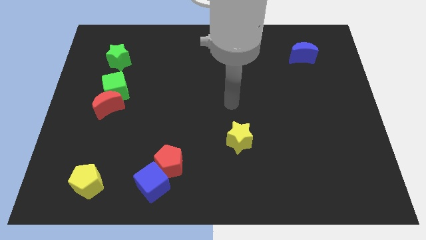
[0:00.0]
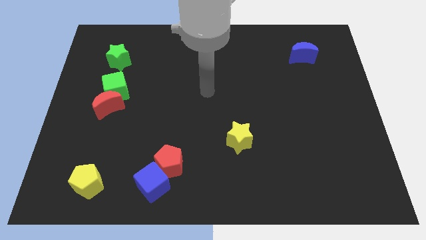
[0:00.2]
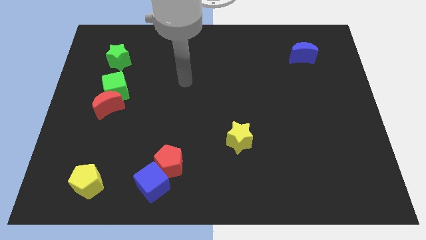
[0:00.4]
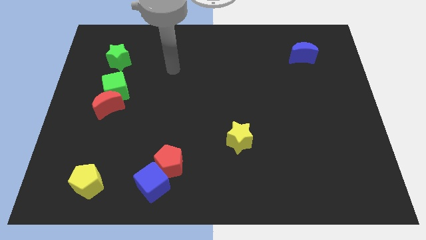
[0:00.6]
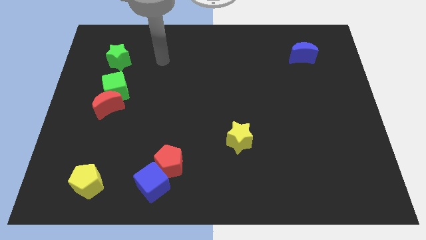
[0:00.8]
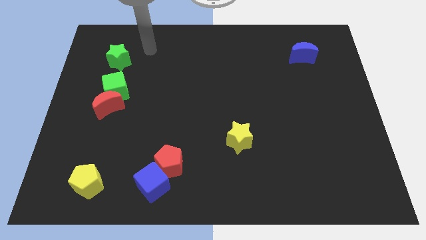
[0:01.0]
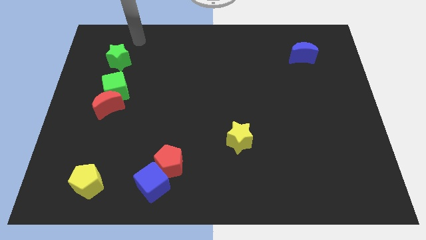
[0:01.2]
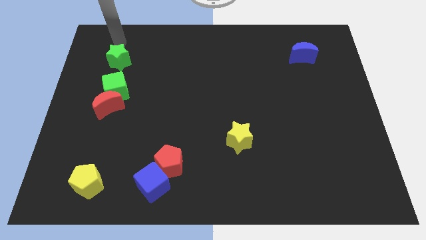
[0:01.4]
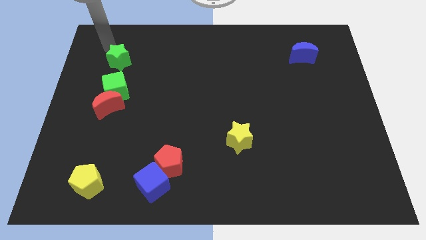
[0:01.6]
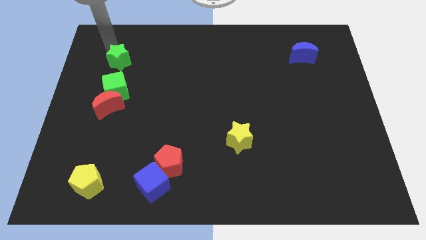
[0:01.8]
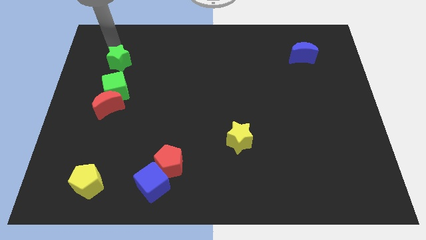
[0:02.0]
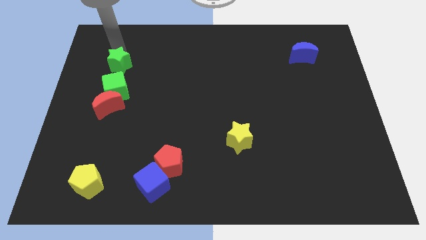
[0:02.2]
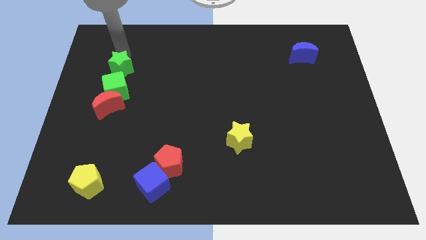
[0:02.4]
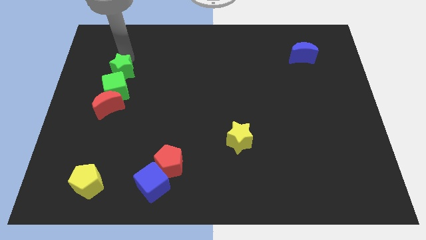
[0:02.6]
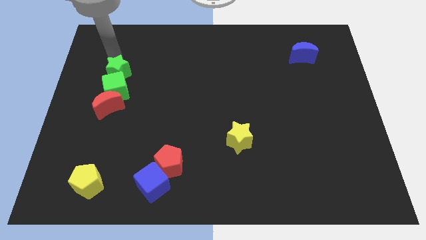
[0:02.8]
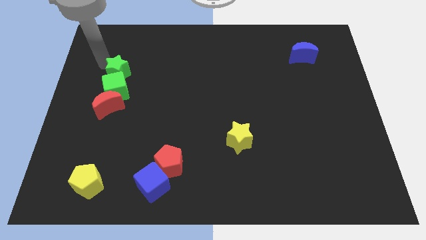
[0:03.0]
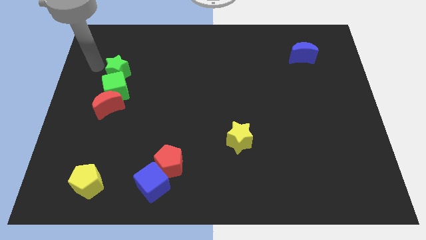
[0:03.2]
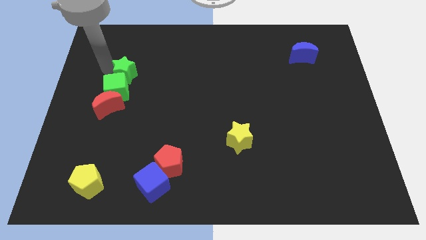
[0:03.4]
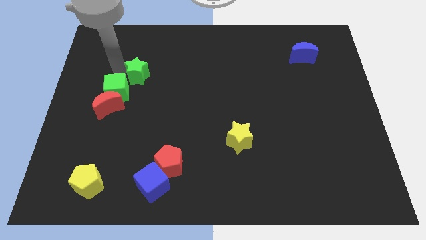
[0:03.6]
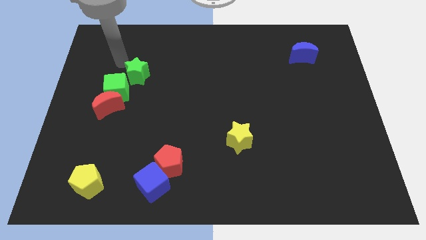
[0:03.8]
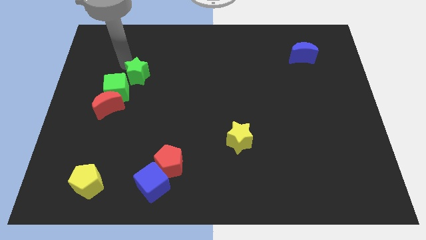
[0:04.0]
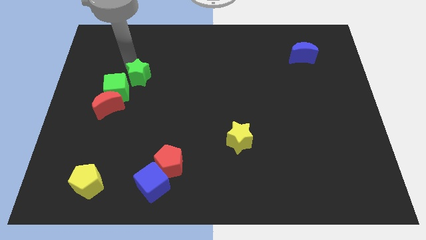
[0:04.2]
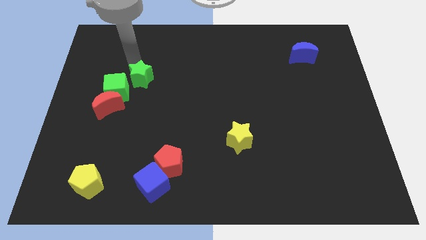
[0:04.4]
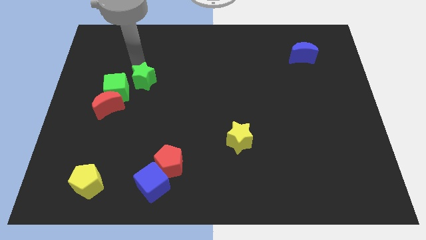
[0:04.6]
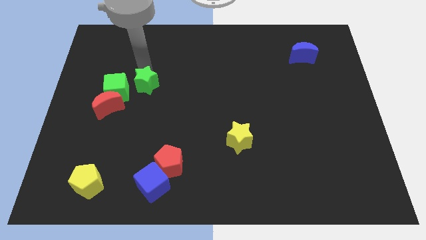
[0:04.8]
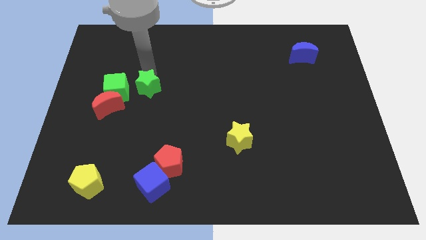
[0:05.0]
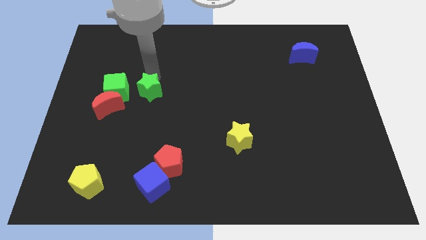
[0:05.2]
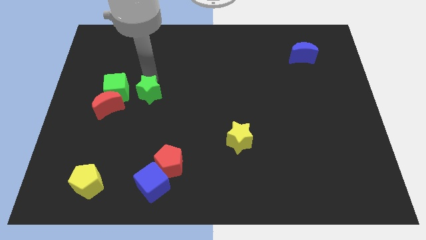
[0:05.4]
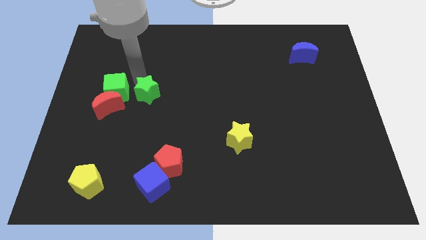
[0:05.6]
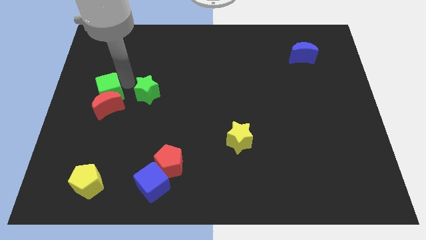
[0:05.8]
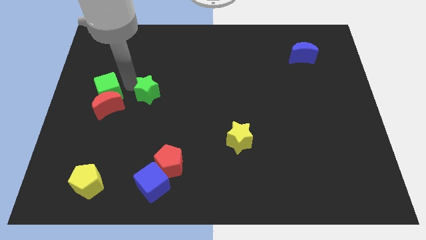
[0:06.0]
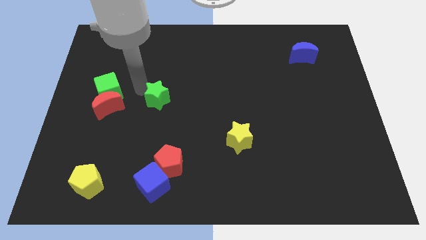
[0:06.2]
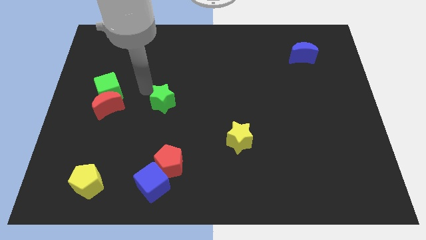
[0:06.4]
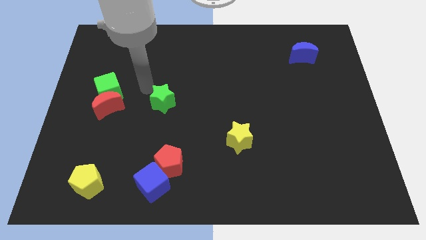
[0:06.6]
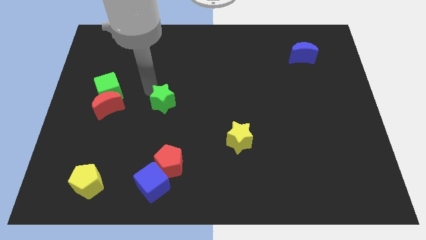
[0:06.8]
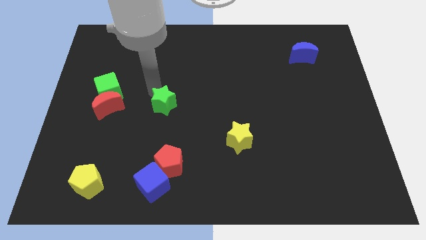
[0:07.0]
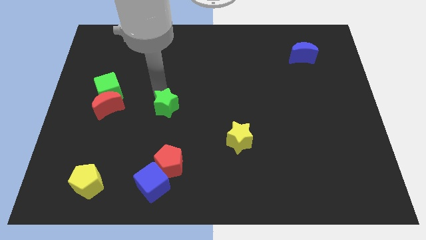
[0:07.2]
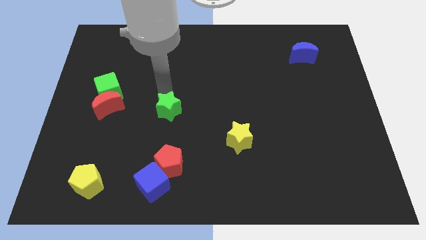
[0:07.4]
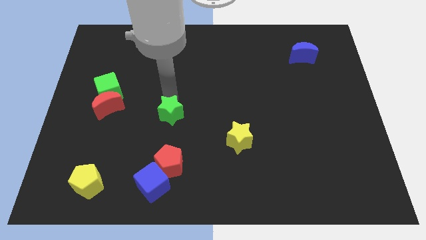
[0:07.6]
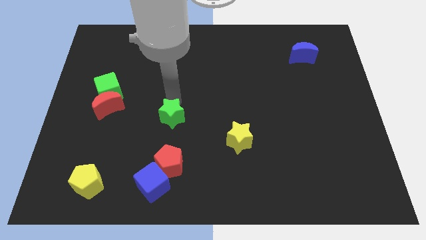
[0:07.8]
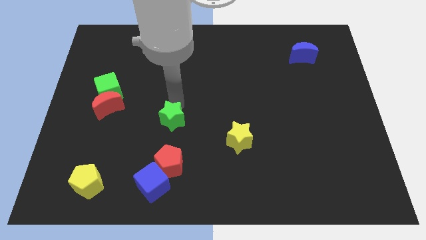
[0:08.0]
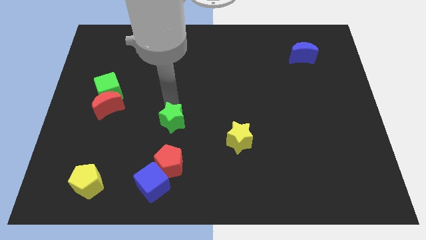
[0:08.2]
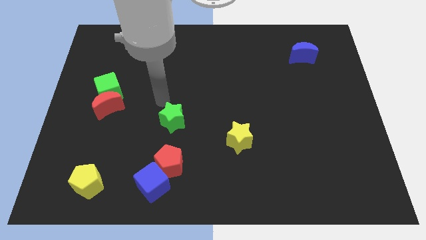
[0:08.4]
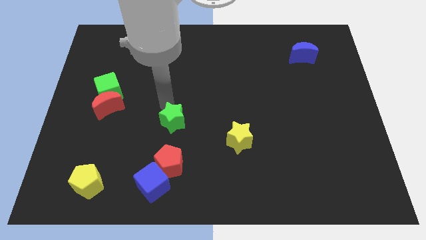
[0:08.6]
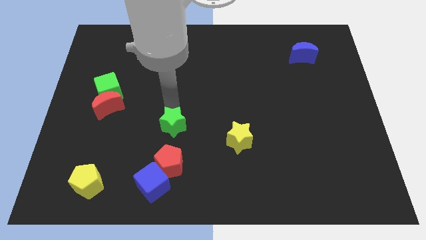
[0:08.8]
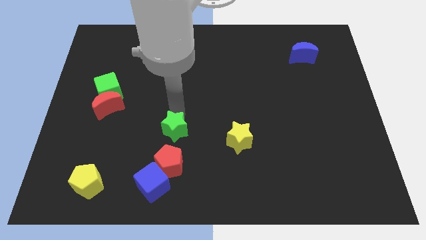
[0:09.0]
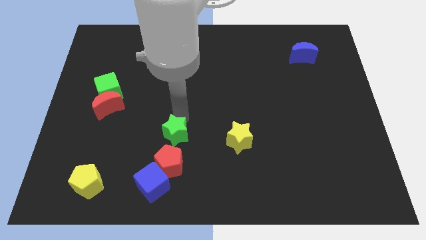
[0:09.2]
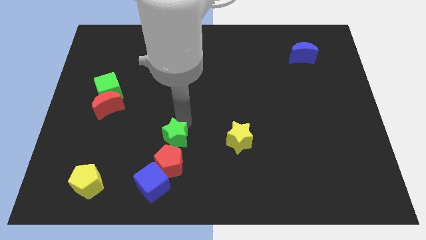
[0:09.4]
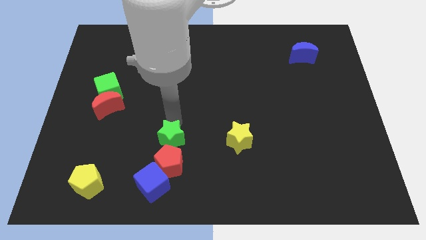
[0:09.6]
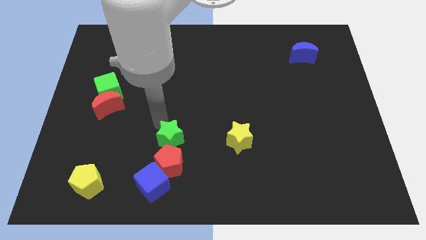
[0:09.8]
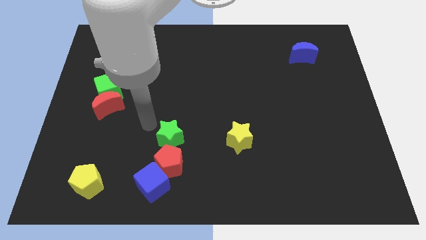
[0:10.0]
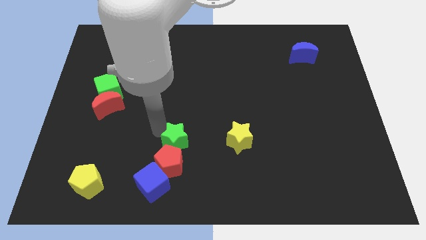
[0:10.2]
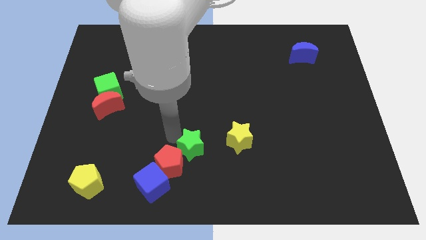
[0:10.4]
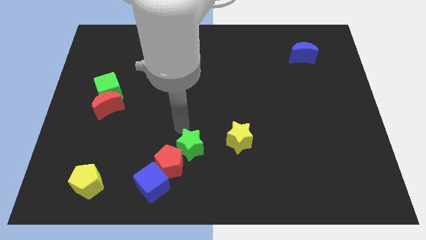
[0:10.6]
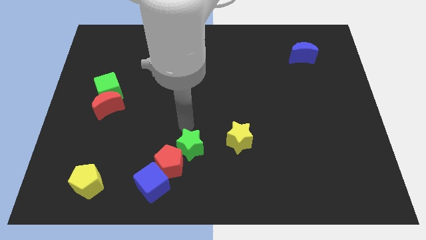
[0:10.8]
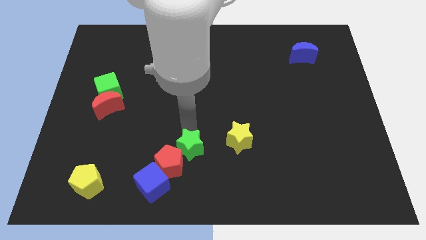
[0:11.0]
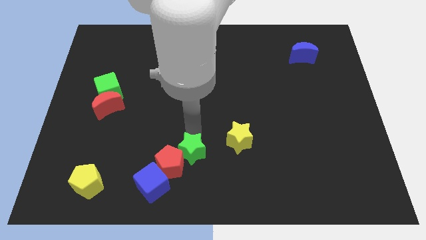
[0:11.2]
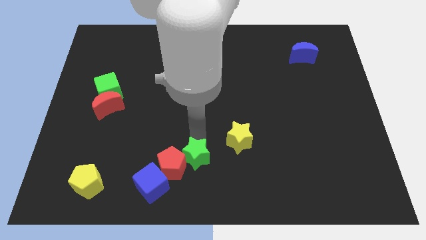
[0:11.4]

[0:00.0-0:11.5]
put the green star to the bottom
